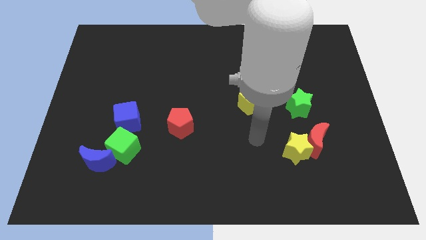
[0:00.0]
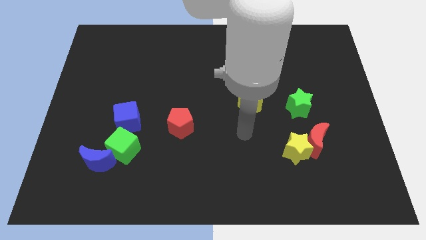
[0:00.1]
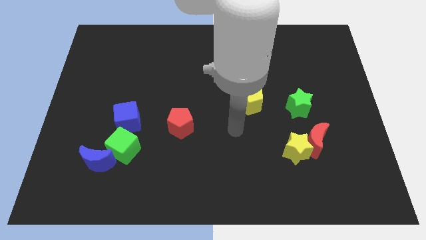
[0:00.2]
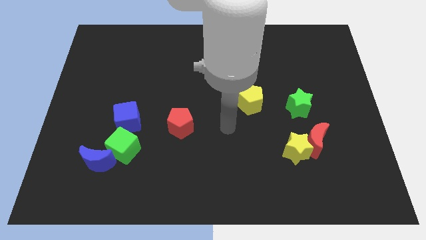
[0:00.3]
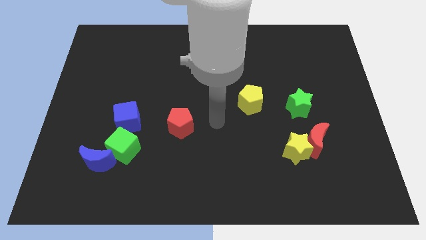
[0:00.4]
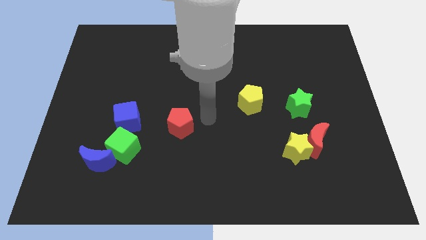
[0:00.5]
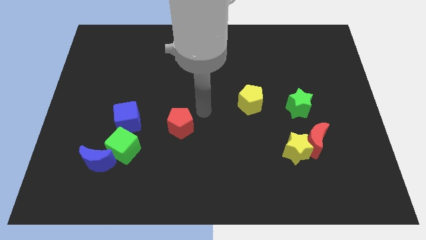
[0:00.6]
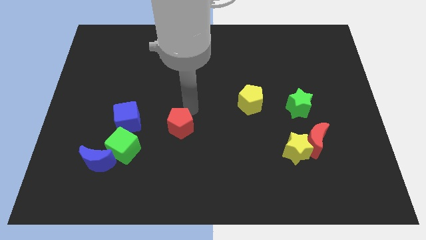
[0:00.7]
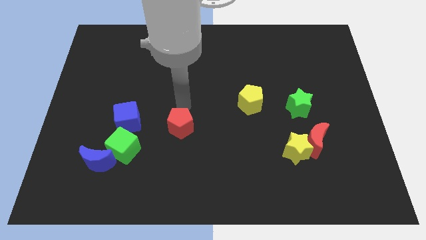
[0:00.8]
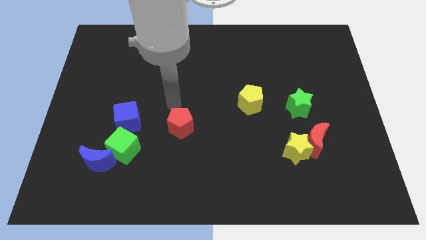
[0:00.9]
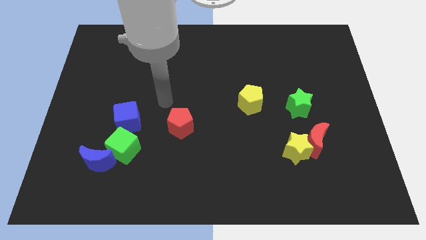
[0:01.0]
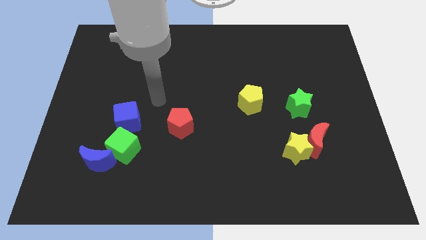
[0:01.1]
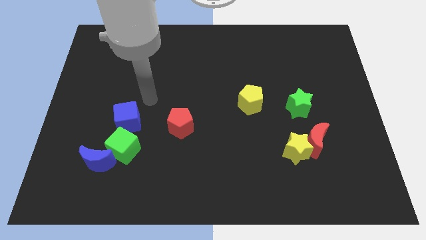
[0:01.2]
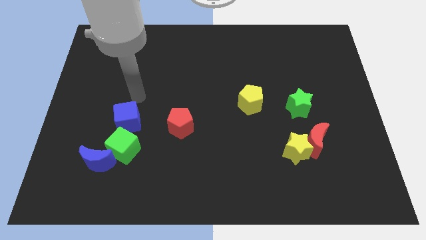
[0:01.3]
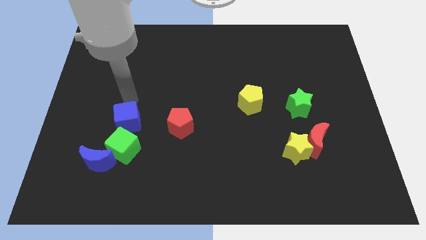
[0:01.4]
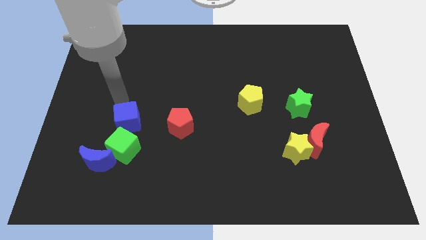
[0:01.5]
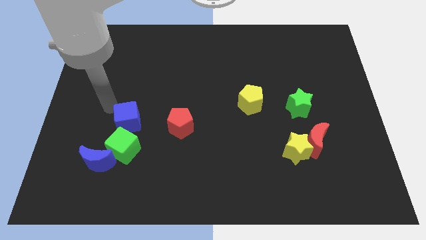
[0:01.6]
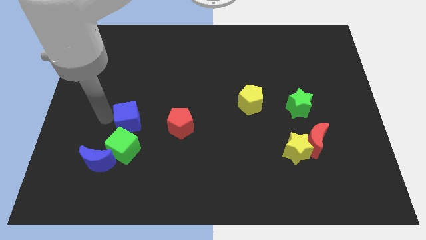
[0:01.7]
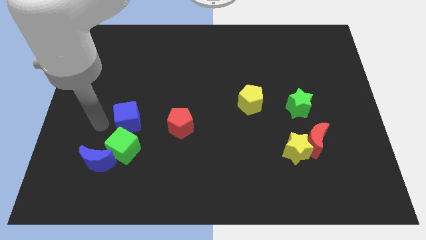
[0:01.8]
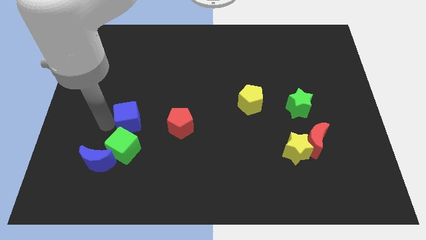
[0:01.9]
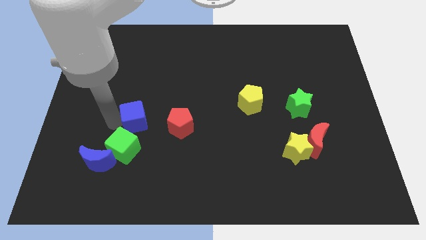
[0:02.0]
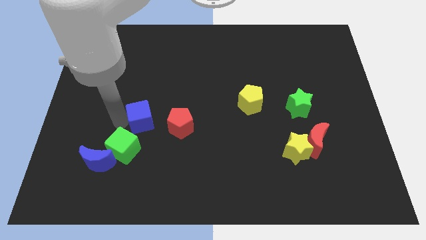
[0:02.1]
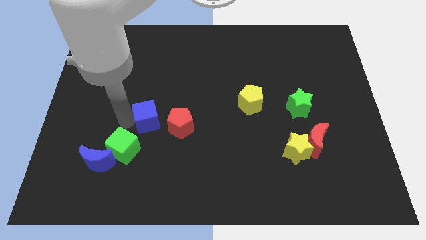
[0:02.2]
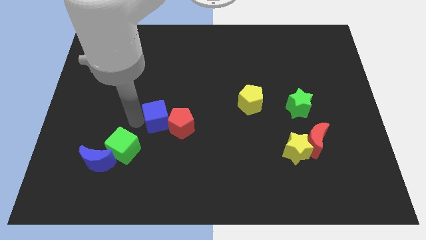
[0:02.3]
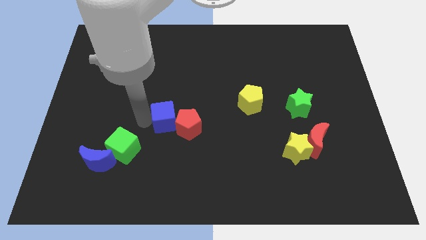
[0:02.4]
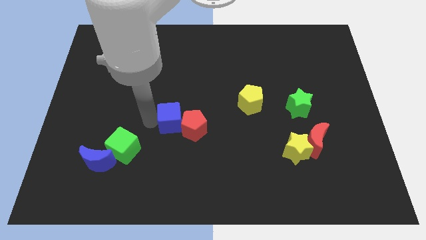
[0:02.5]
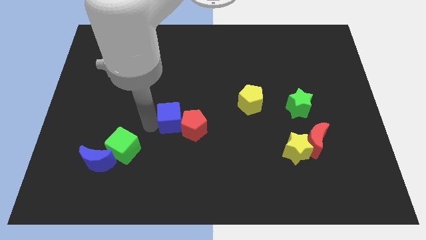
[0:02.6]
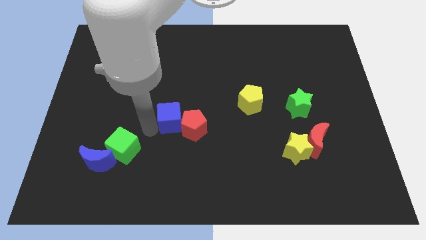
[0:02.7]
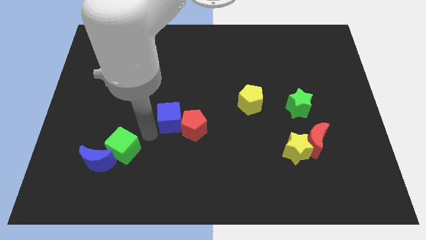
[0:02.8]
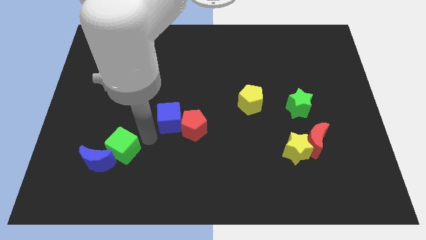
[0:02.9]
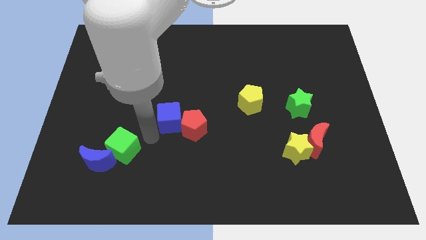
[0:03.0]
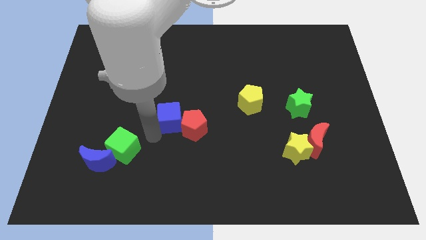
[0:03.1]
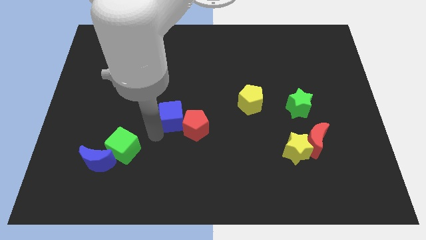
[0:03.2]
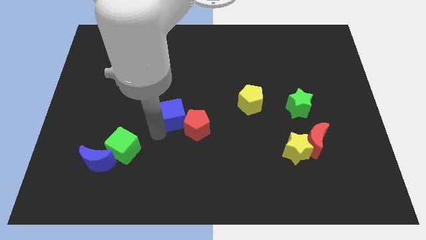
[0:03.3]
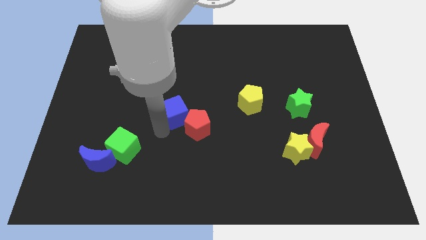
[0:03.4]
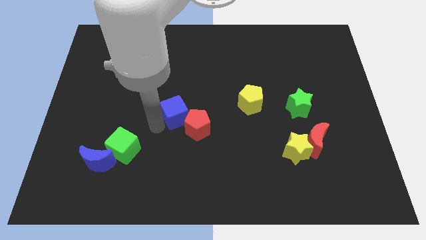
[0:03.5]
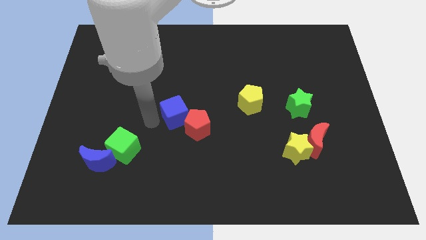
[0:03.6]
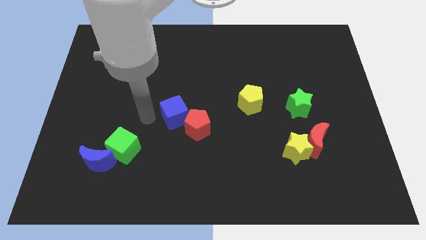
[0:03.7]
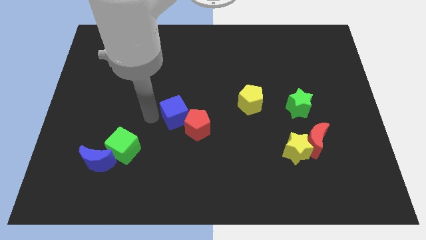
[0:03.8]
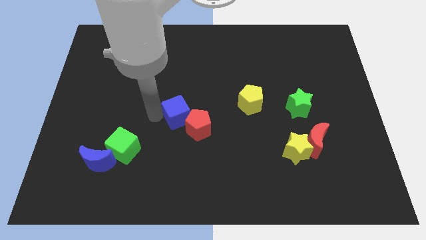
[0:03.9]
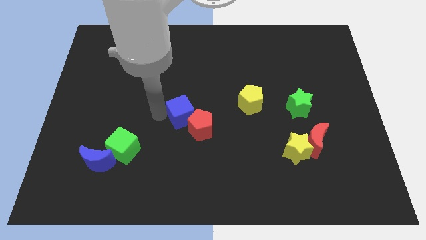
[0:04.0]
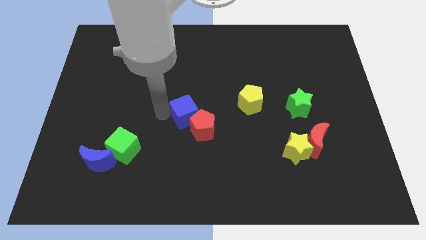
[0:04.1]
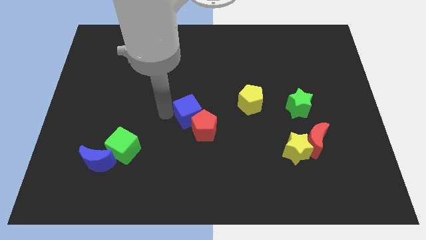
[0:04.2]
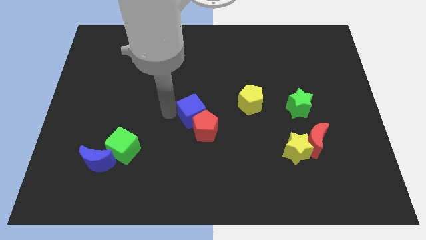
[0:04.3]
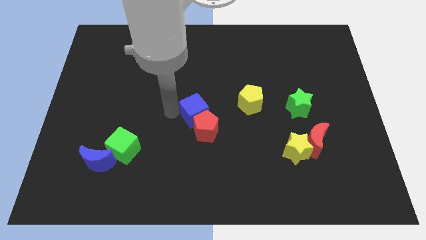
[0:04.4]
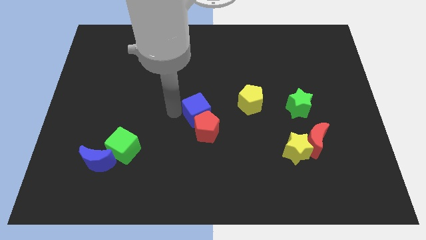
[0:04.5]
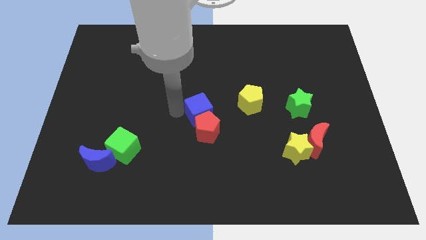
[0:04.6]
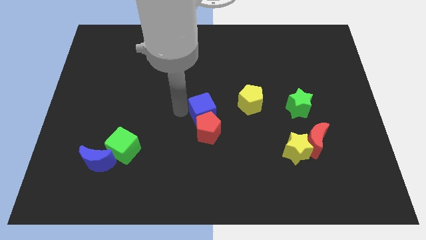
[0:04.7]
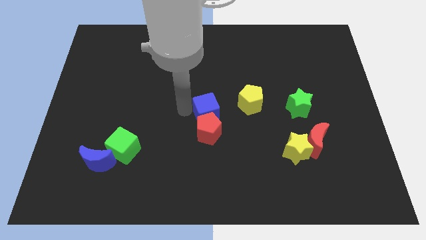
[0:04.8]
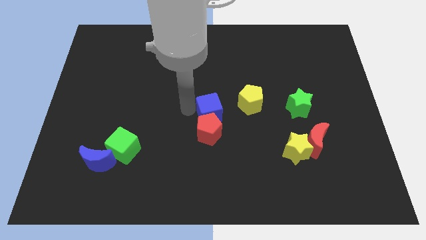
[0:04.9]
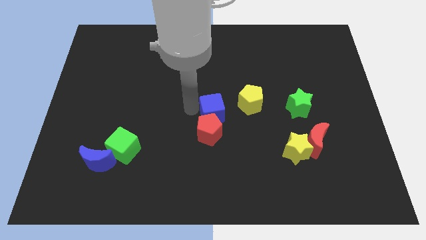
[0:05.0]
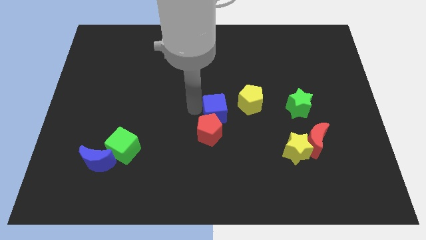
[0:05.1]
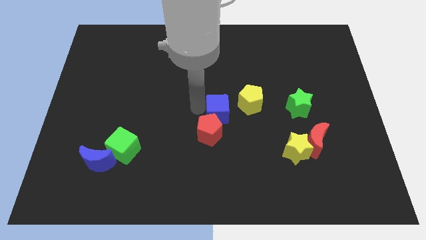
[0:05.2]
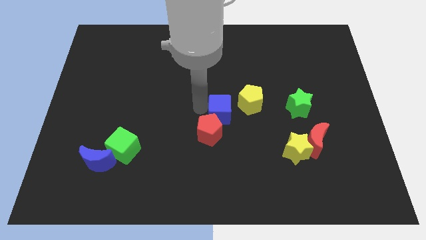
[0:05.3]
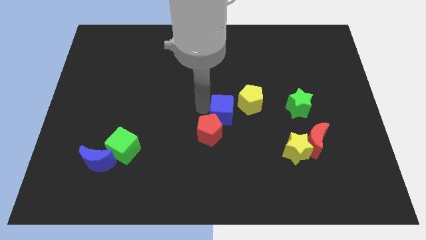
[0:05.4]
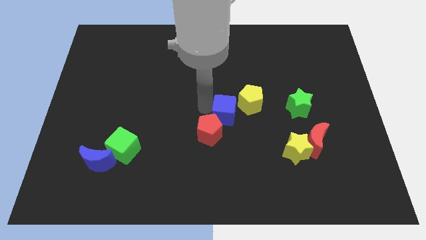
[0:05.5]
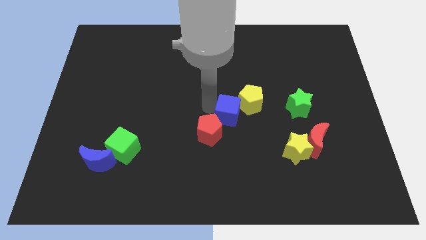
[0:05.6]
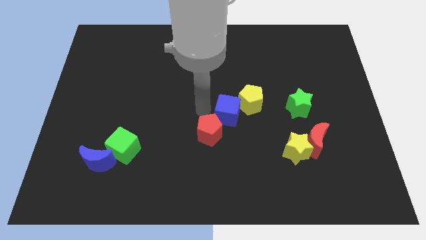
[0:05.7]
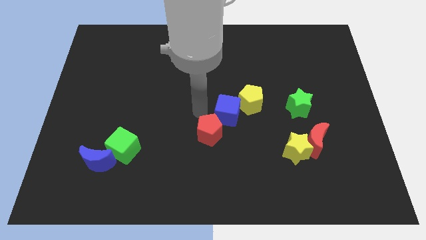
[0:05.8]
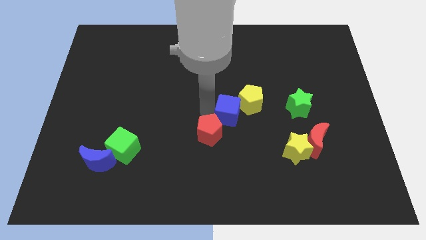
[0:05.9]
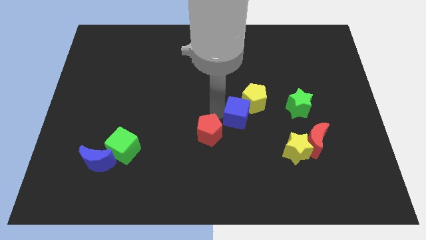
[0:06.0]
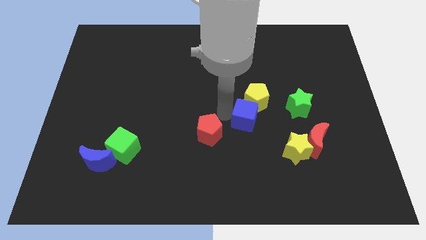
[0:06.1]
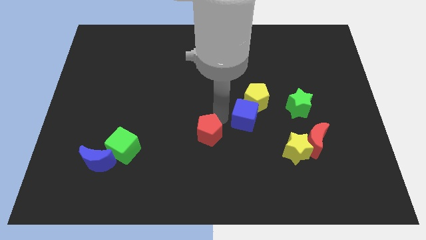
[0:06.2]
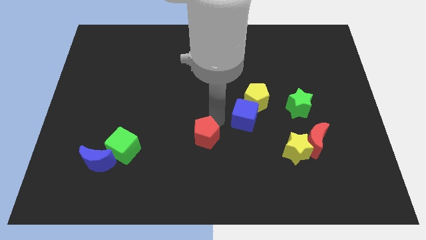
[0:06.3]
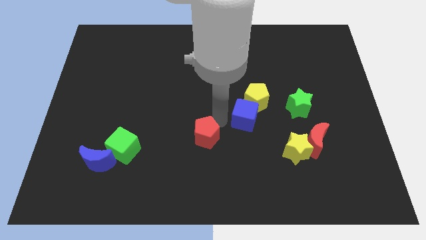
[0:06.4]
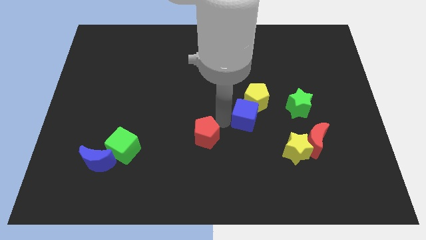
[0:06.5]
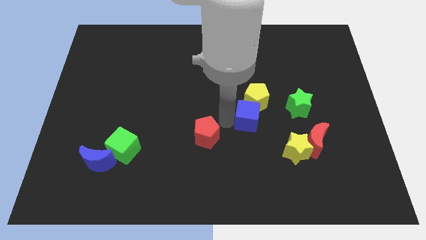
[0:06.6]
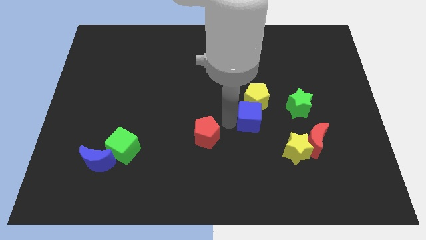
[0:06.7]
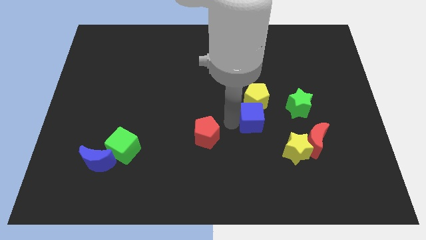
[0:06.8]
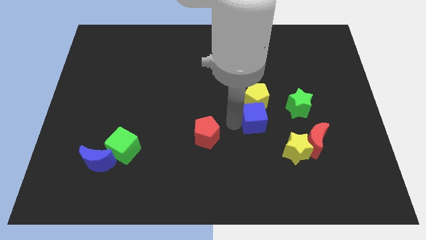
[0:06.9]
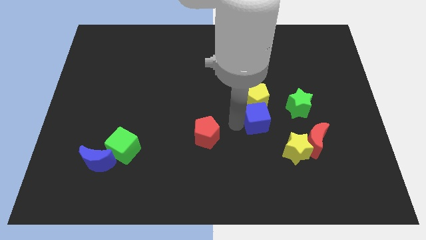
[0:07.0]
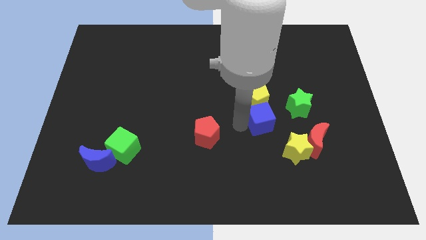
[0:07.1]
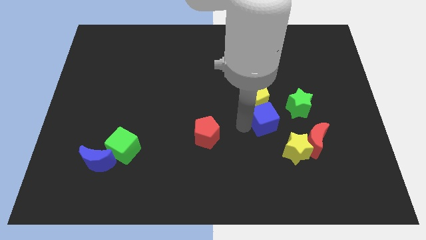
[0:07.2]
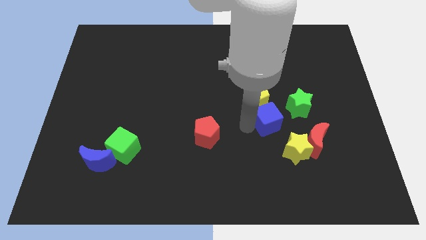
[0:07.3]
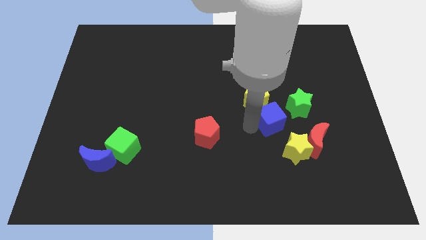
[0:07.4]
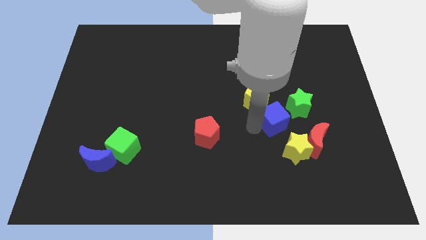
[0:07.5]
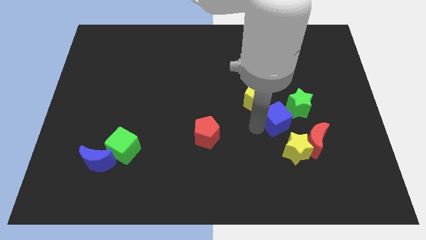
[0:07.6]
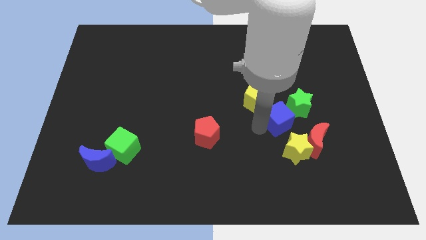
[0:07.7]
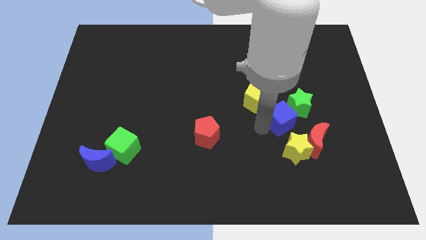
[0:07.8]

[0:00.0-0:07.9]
put the blue cube next to the green star
